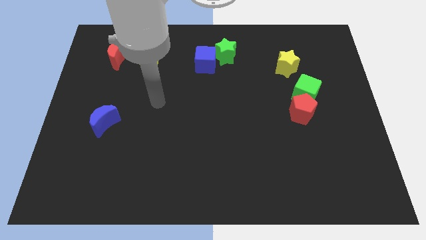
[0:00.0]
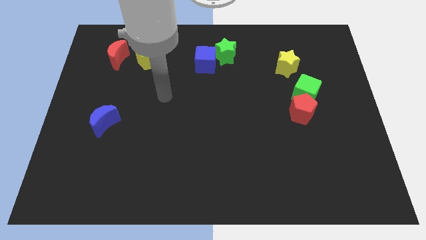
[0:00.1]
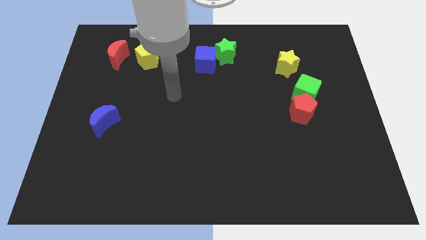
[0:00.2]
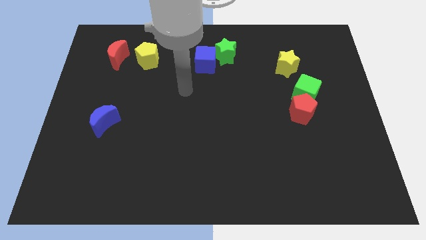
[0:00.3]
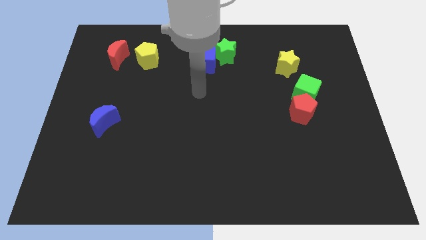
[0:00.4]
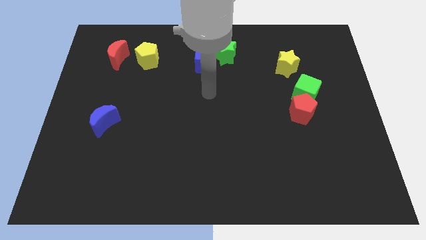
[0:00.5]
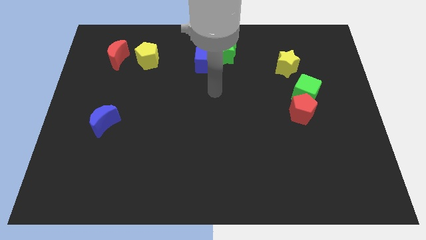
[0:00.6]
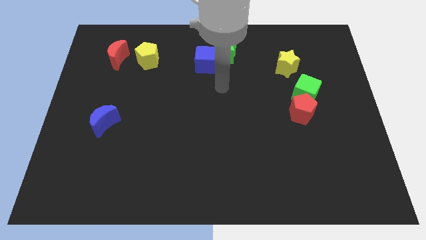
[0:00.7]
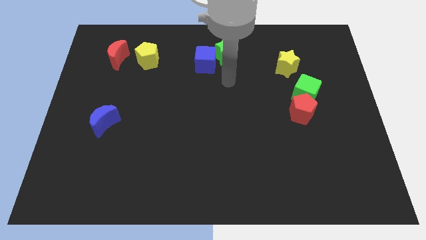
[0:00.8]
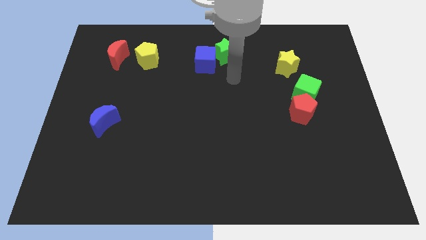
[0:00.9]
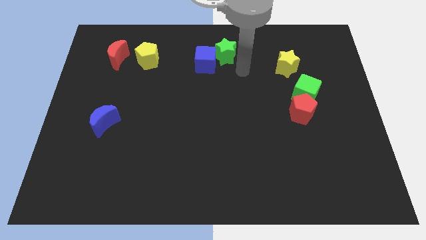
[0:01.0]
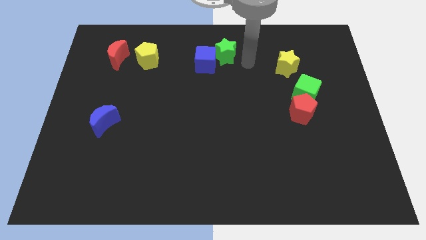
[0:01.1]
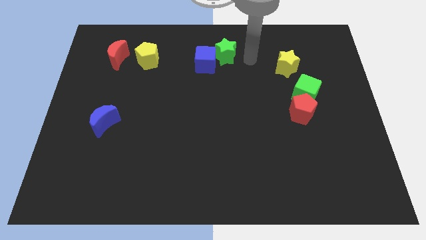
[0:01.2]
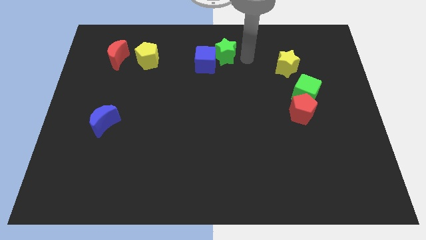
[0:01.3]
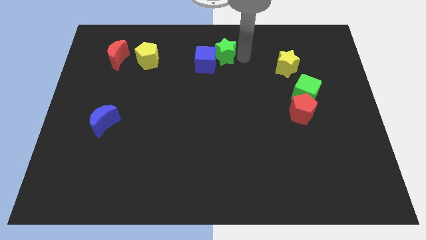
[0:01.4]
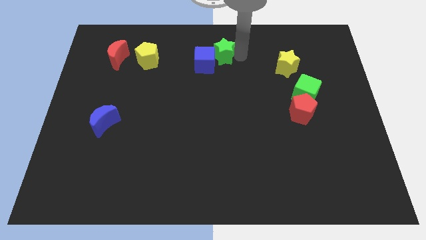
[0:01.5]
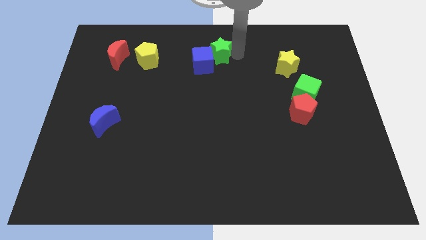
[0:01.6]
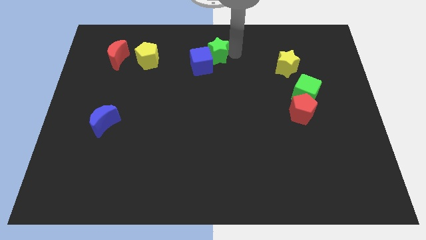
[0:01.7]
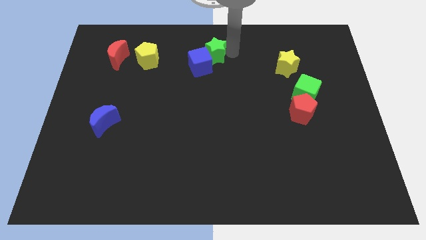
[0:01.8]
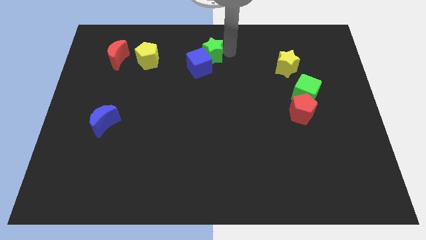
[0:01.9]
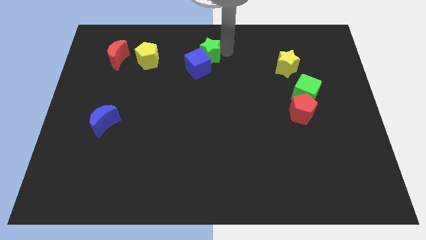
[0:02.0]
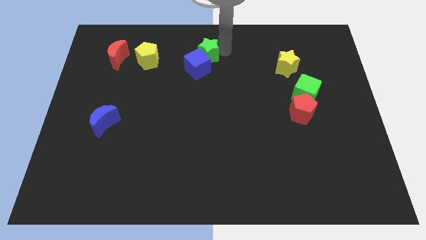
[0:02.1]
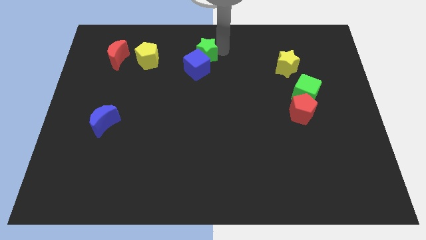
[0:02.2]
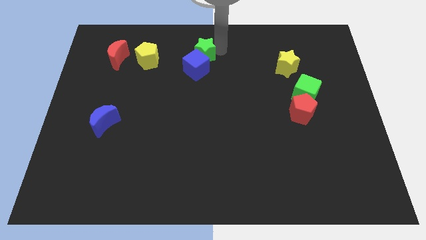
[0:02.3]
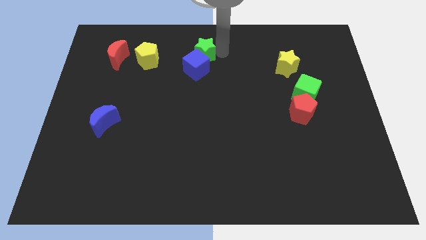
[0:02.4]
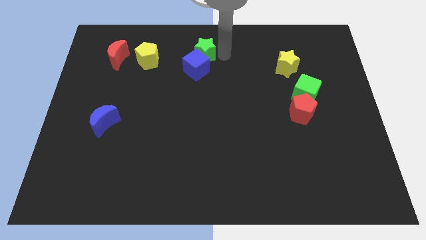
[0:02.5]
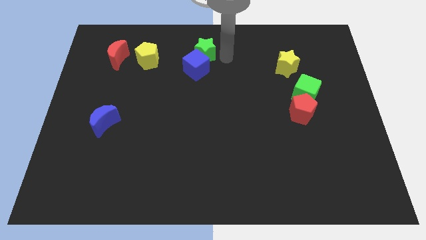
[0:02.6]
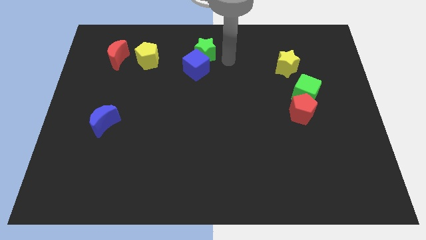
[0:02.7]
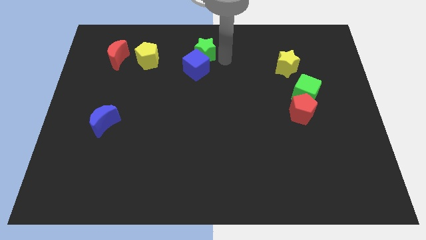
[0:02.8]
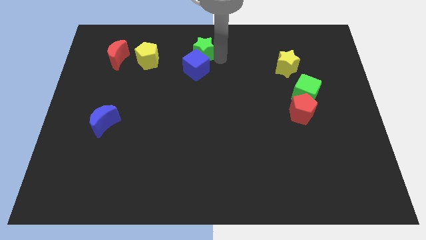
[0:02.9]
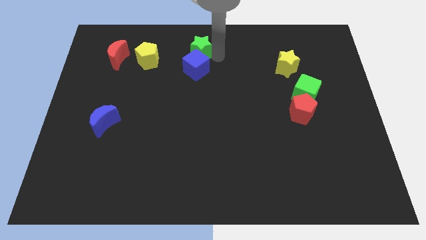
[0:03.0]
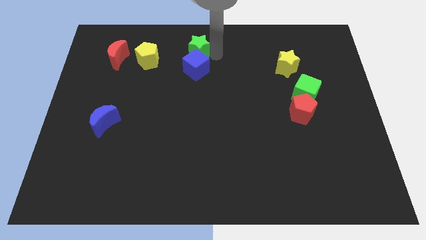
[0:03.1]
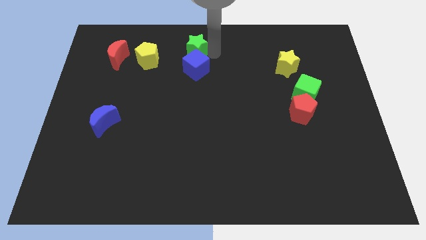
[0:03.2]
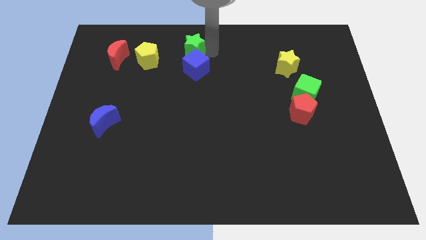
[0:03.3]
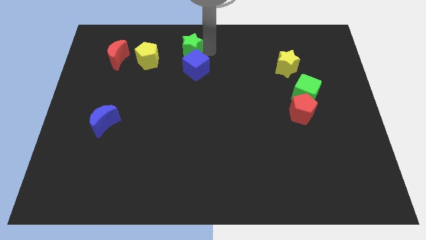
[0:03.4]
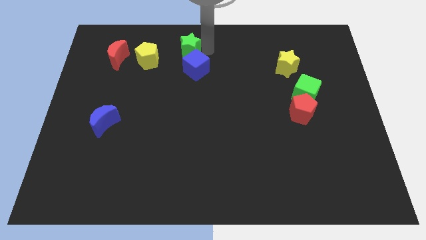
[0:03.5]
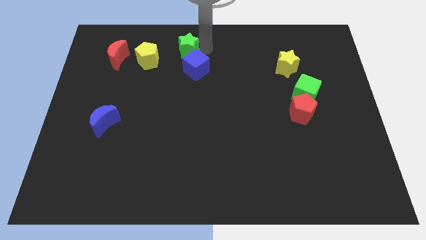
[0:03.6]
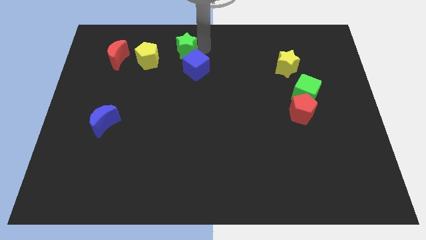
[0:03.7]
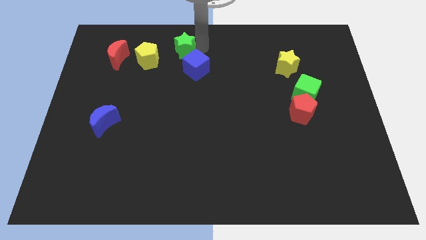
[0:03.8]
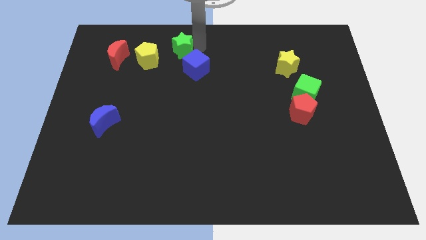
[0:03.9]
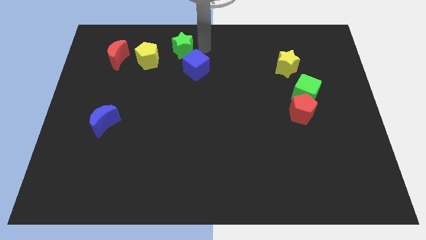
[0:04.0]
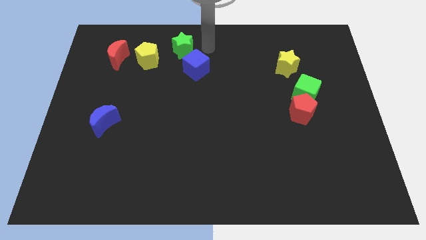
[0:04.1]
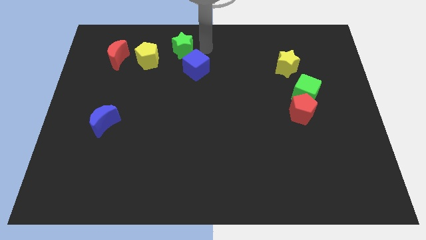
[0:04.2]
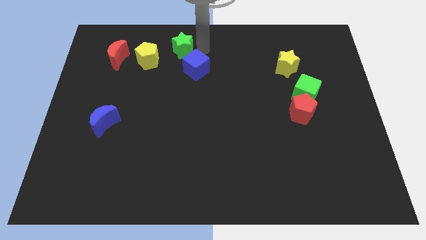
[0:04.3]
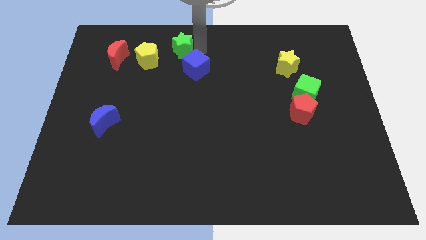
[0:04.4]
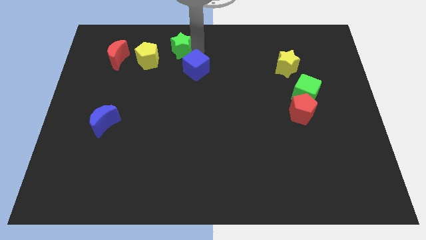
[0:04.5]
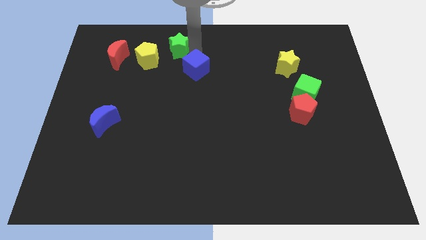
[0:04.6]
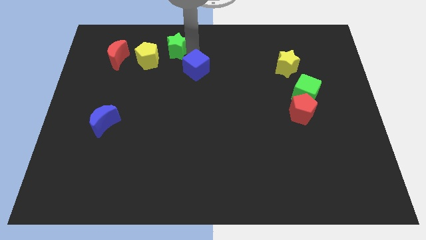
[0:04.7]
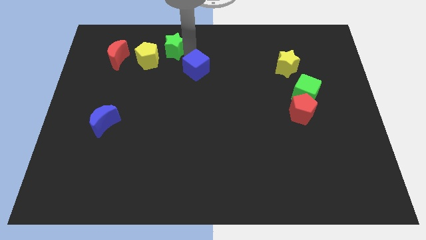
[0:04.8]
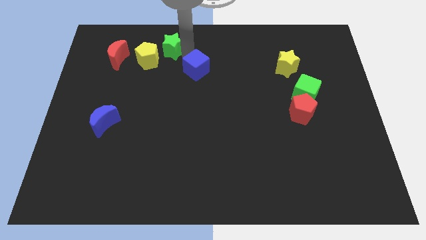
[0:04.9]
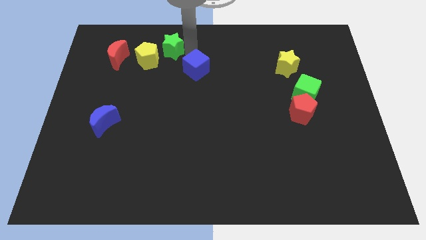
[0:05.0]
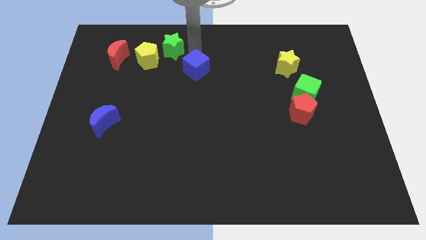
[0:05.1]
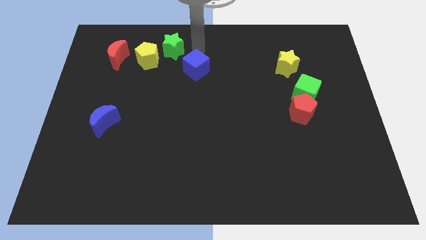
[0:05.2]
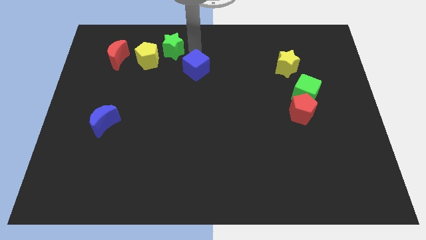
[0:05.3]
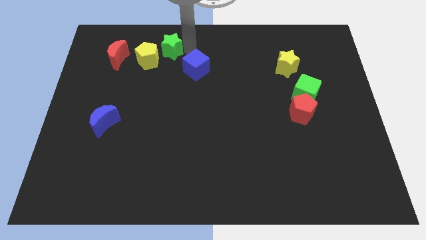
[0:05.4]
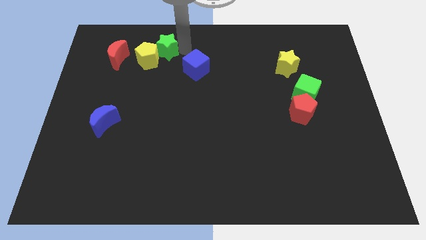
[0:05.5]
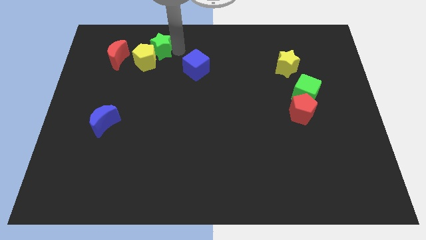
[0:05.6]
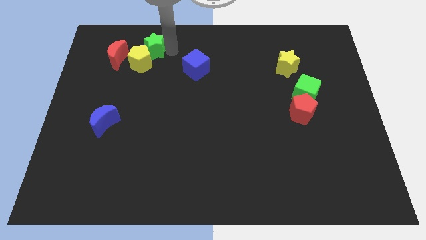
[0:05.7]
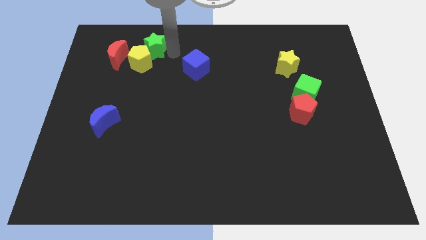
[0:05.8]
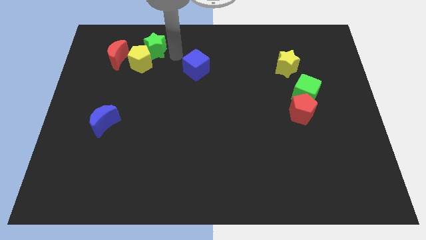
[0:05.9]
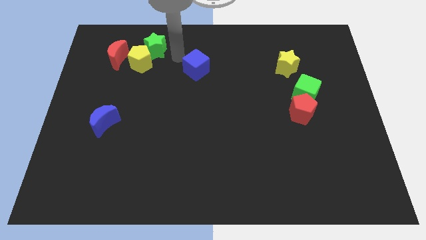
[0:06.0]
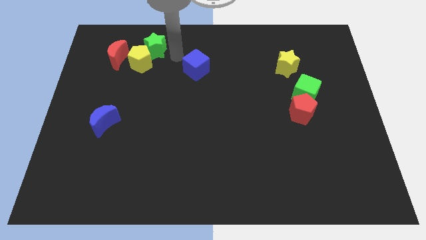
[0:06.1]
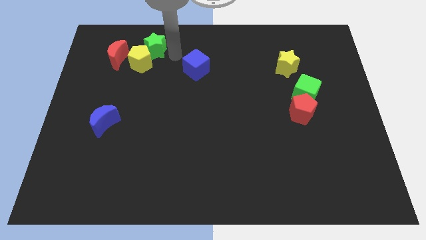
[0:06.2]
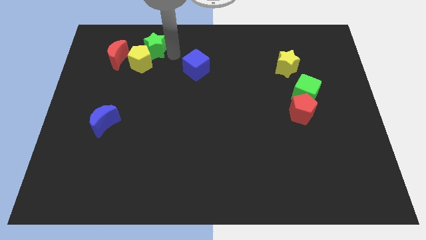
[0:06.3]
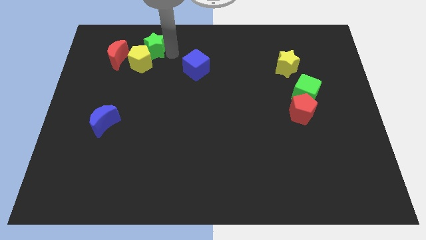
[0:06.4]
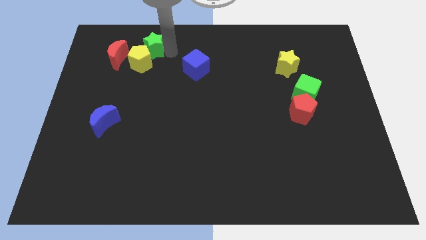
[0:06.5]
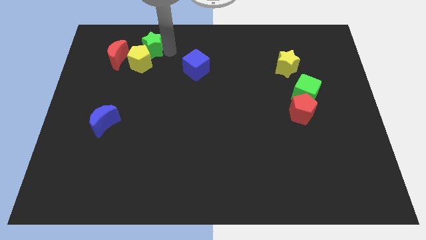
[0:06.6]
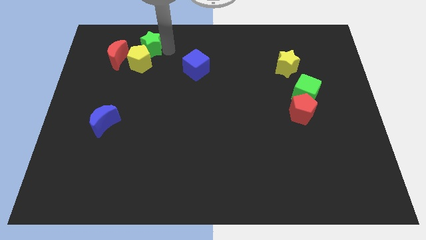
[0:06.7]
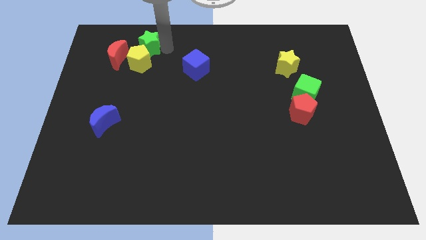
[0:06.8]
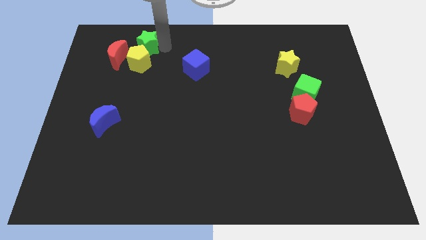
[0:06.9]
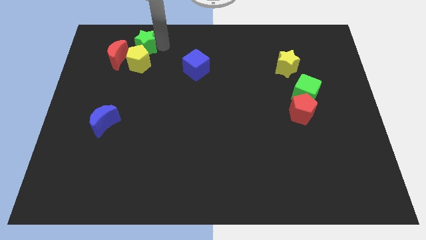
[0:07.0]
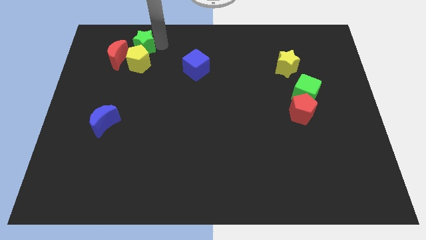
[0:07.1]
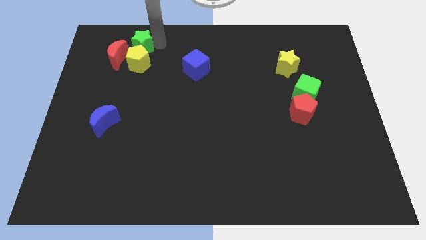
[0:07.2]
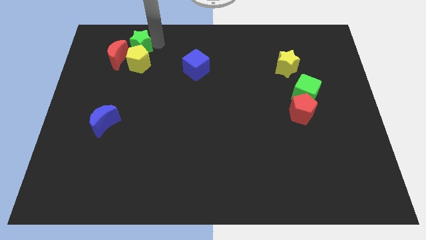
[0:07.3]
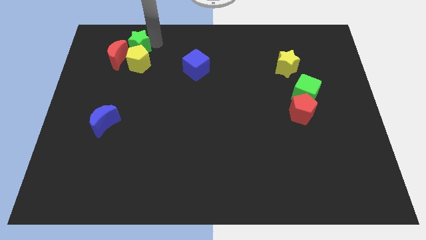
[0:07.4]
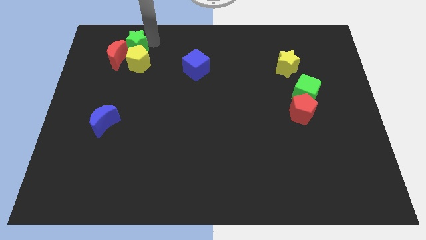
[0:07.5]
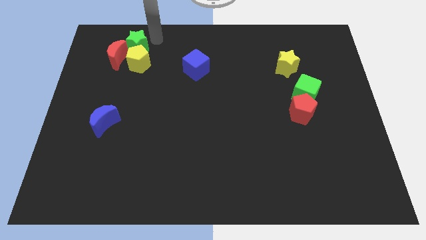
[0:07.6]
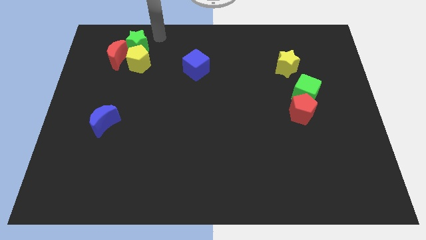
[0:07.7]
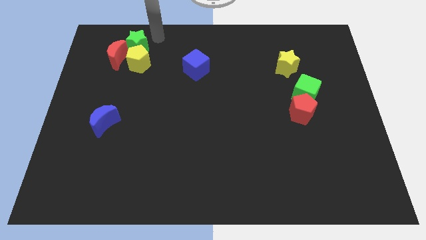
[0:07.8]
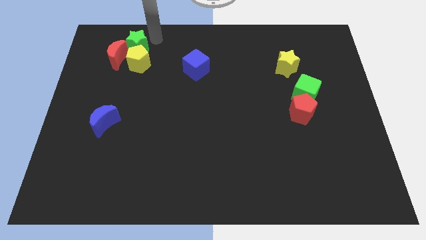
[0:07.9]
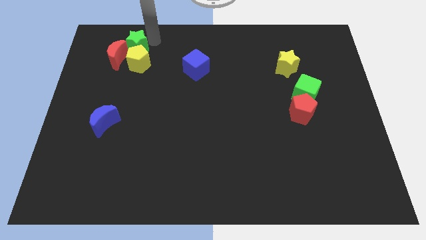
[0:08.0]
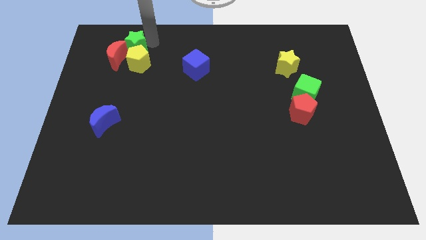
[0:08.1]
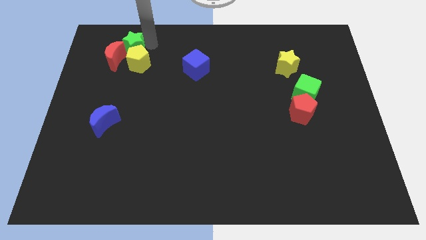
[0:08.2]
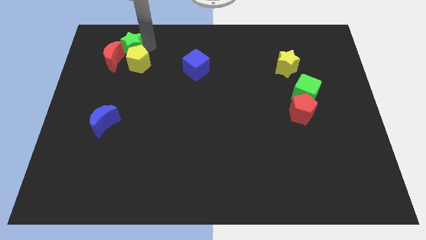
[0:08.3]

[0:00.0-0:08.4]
put the green star to the red moon
